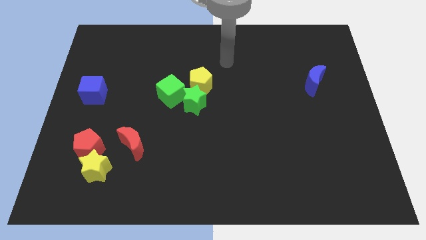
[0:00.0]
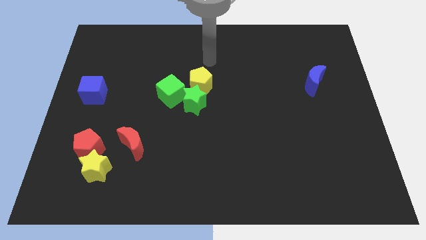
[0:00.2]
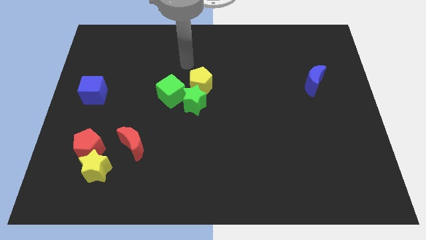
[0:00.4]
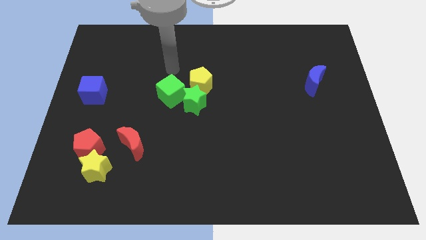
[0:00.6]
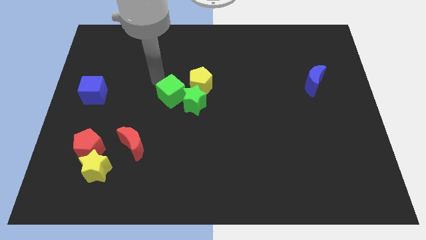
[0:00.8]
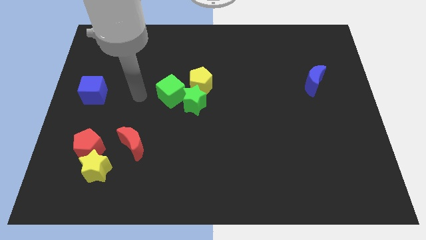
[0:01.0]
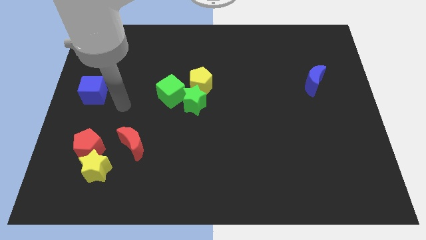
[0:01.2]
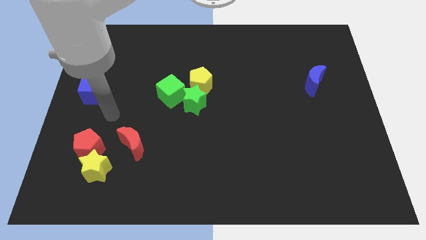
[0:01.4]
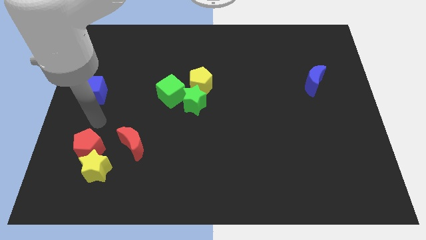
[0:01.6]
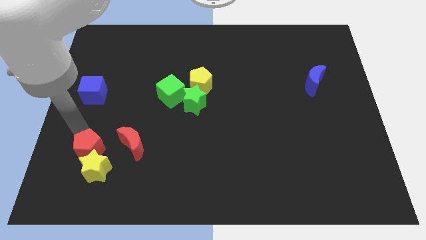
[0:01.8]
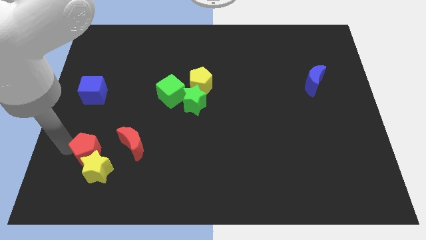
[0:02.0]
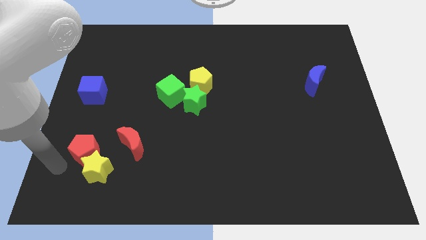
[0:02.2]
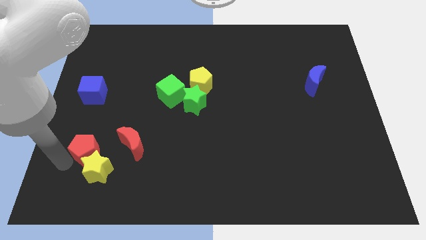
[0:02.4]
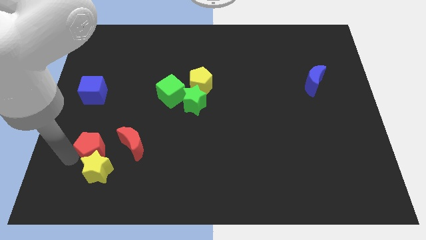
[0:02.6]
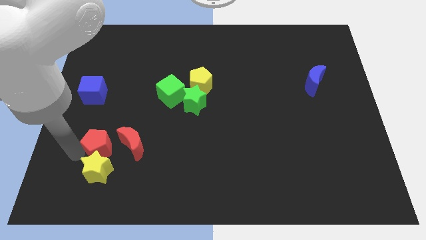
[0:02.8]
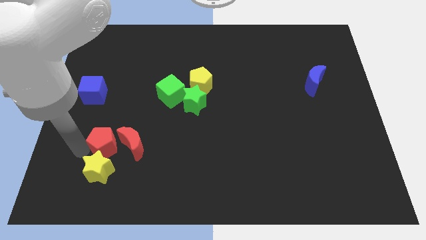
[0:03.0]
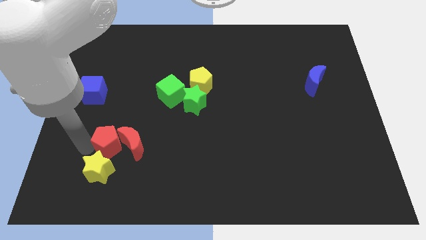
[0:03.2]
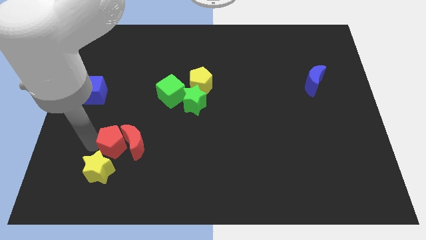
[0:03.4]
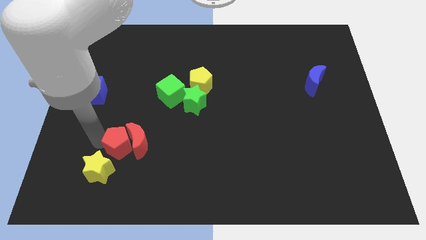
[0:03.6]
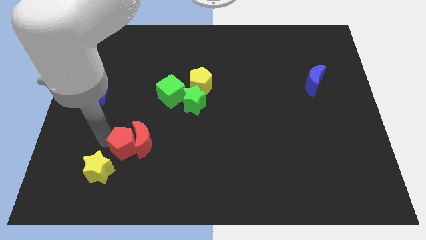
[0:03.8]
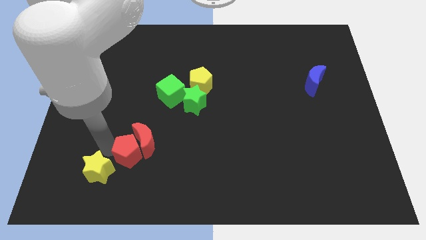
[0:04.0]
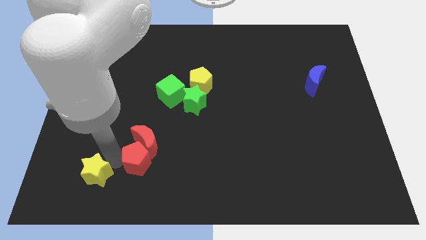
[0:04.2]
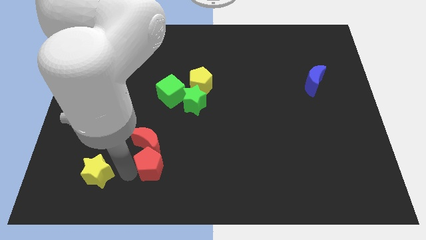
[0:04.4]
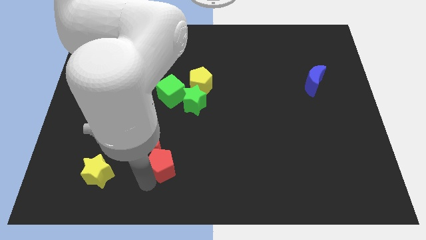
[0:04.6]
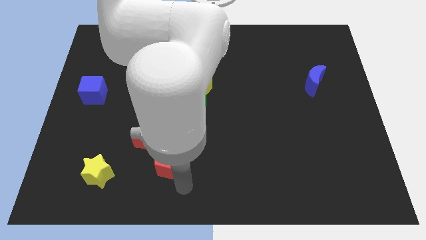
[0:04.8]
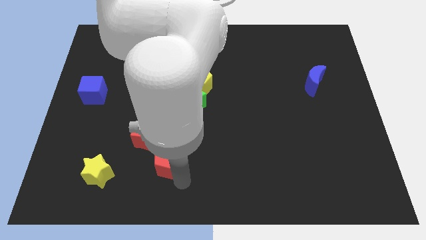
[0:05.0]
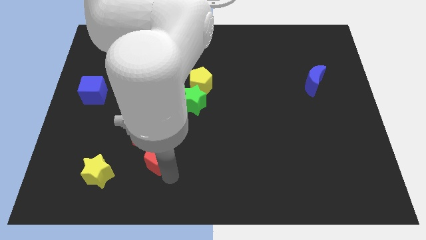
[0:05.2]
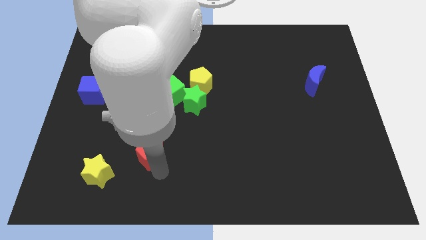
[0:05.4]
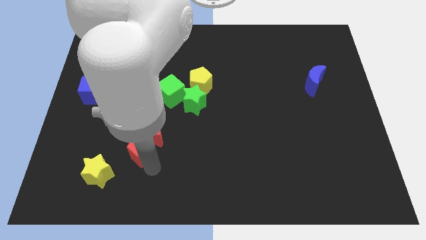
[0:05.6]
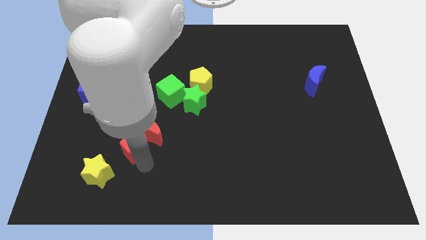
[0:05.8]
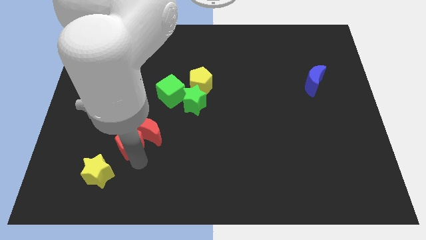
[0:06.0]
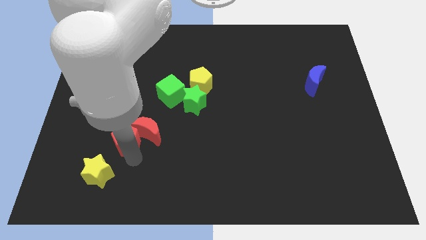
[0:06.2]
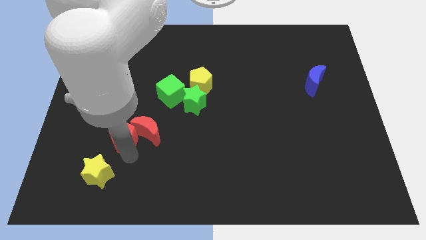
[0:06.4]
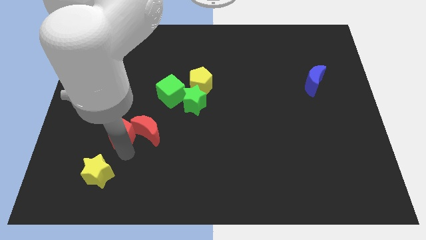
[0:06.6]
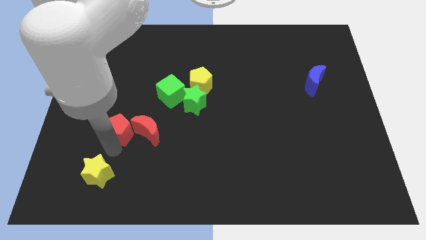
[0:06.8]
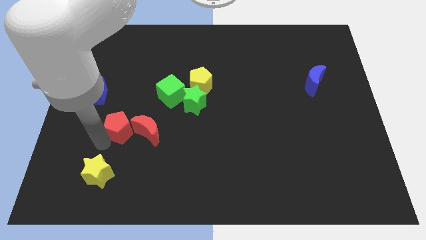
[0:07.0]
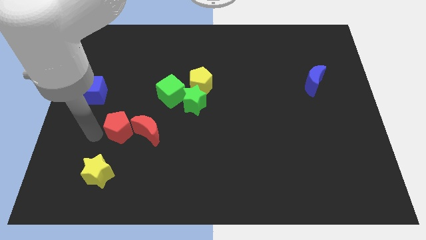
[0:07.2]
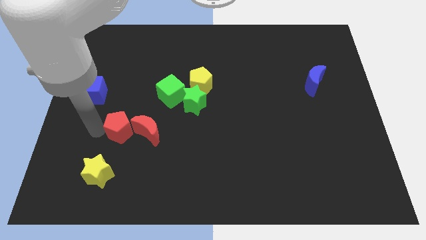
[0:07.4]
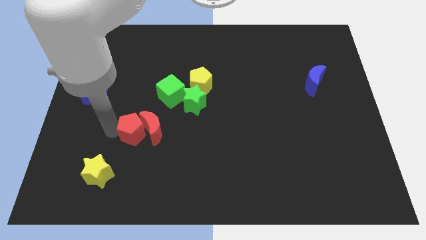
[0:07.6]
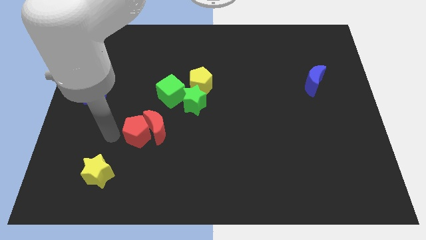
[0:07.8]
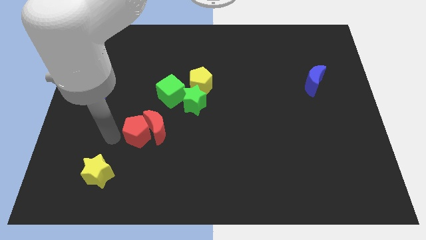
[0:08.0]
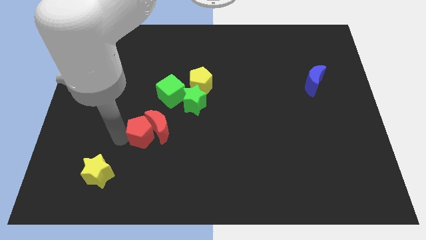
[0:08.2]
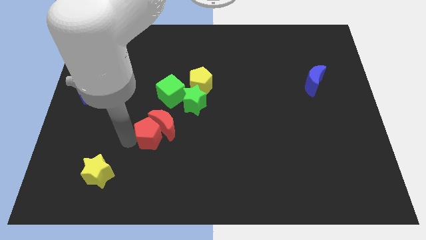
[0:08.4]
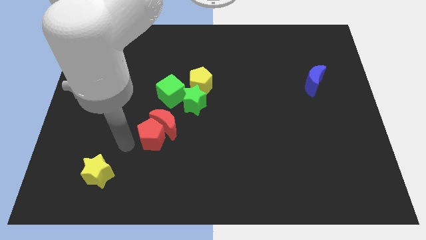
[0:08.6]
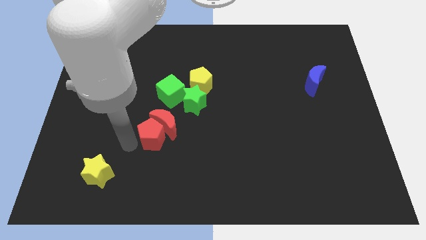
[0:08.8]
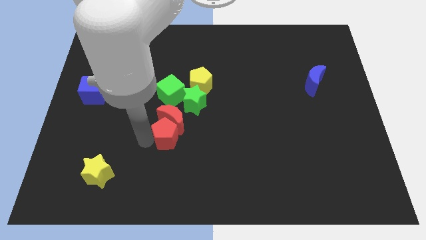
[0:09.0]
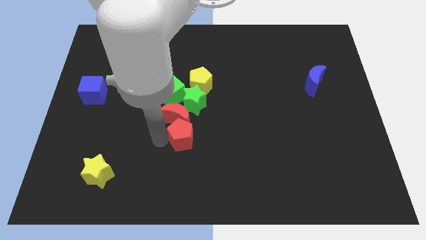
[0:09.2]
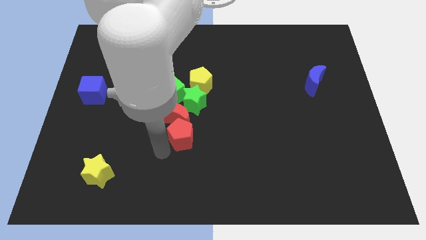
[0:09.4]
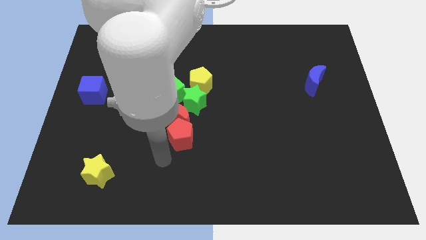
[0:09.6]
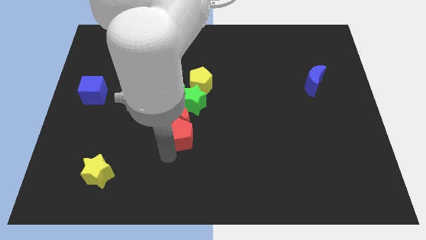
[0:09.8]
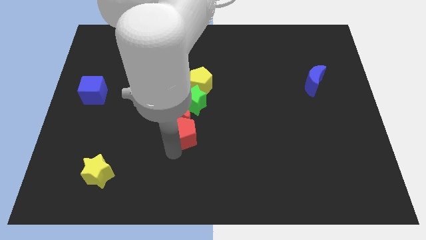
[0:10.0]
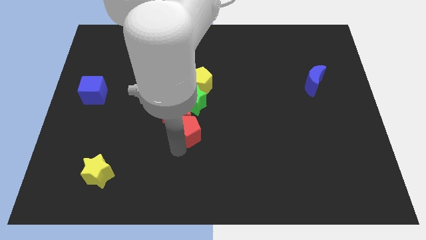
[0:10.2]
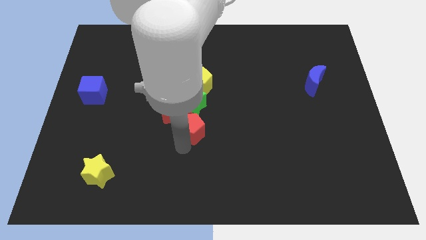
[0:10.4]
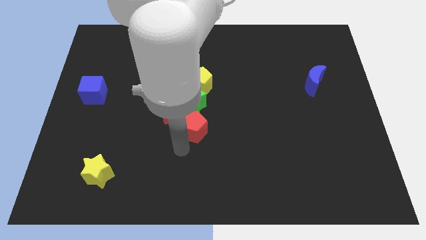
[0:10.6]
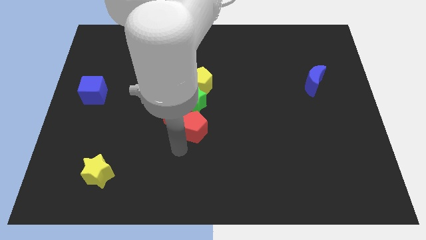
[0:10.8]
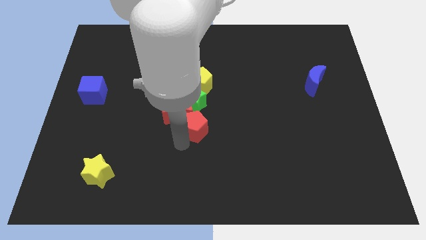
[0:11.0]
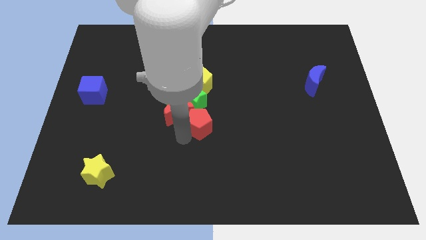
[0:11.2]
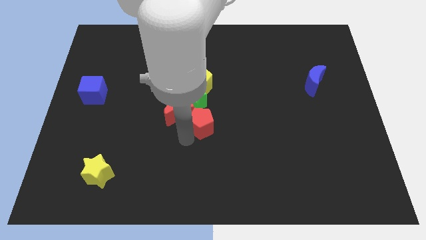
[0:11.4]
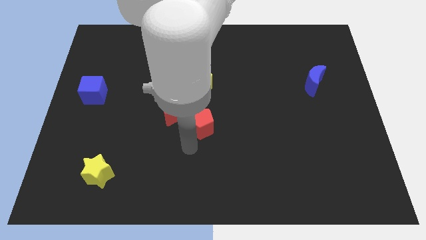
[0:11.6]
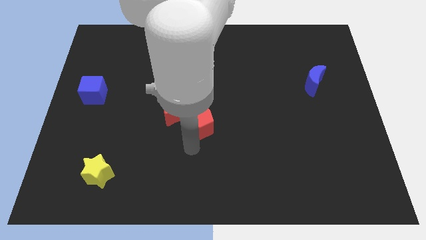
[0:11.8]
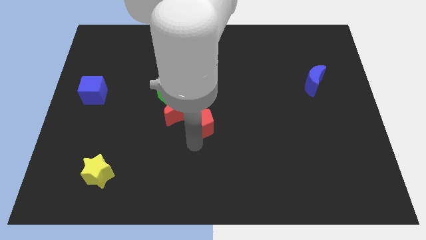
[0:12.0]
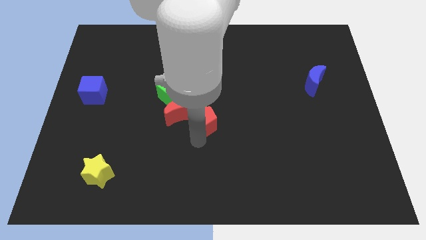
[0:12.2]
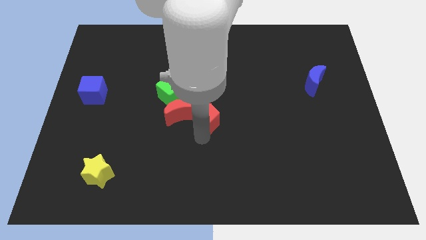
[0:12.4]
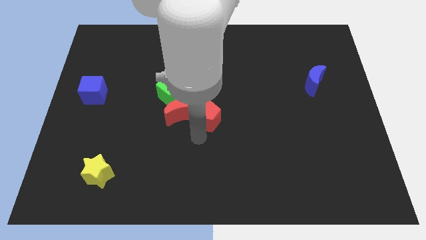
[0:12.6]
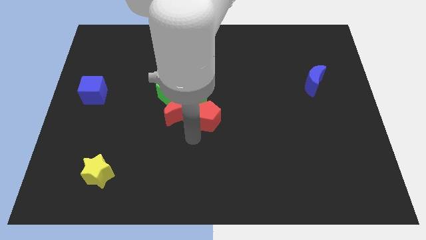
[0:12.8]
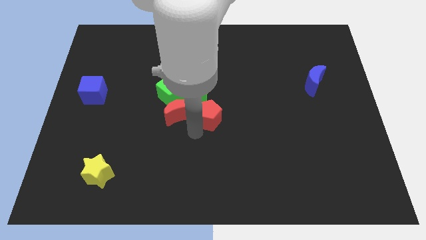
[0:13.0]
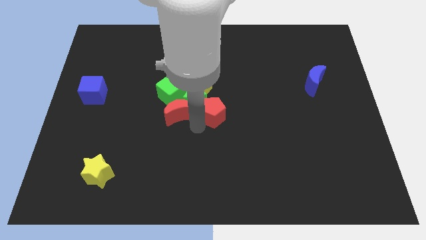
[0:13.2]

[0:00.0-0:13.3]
push the red pentagon to the bottom right of the yellow pentagon

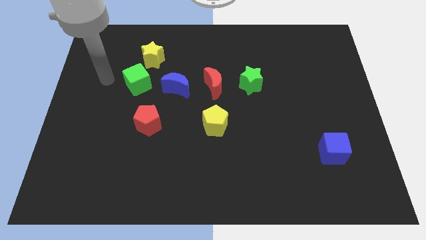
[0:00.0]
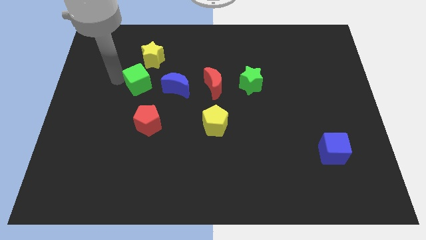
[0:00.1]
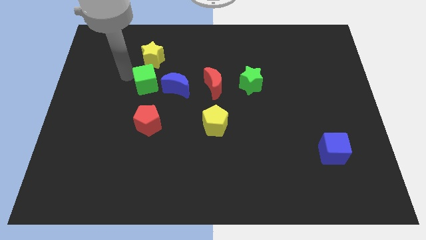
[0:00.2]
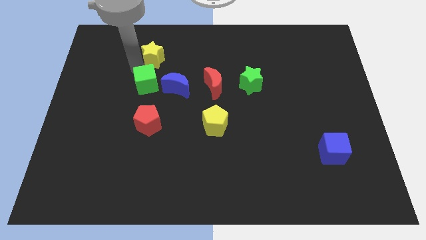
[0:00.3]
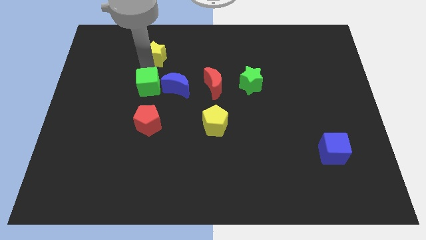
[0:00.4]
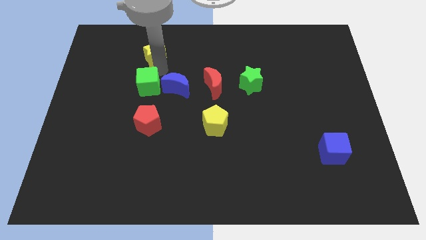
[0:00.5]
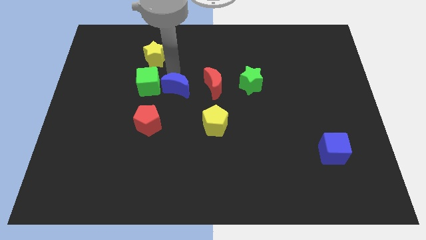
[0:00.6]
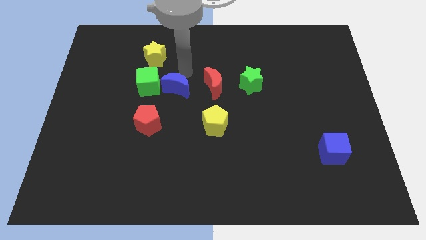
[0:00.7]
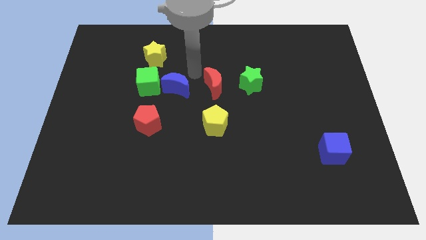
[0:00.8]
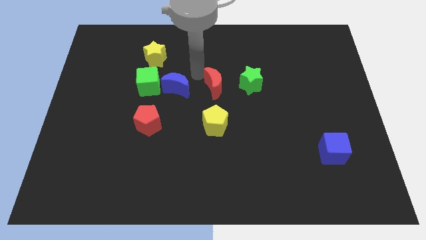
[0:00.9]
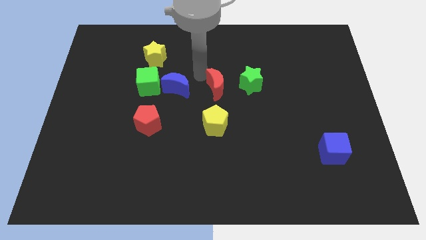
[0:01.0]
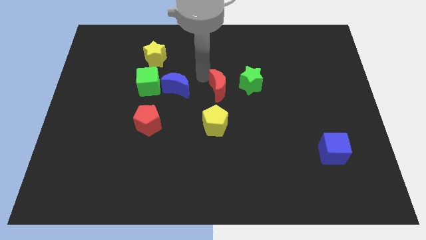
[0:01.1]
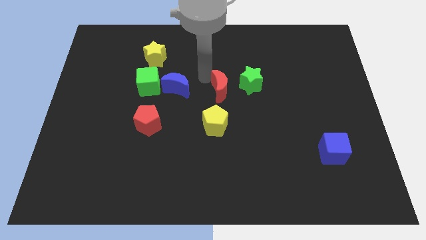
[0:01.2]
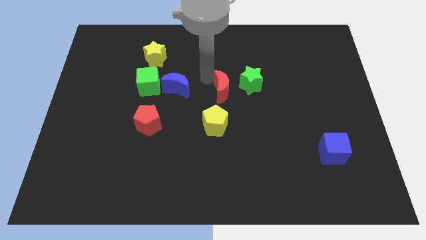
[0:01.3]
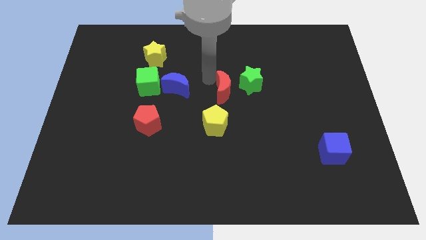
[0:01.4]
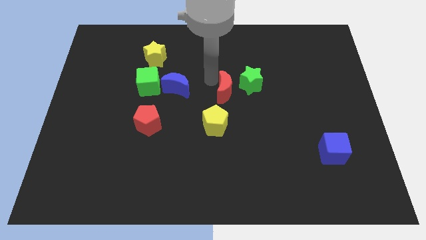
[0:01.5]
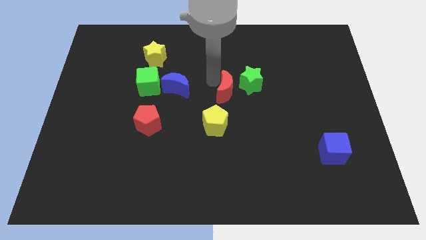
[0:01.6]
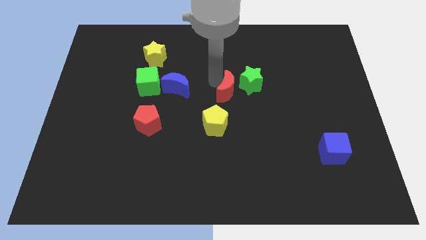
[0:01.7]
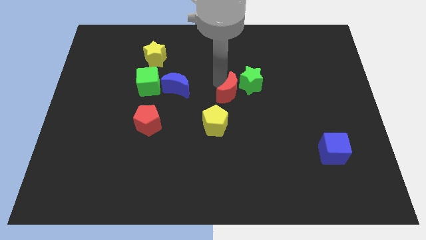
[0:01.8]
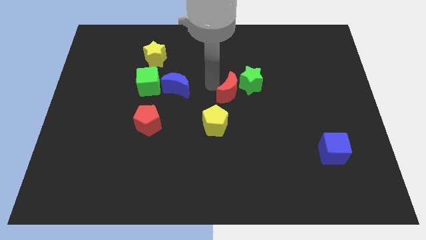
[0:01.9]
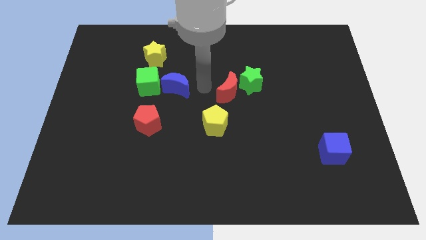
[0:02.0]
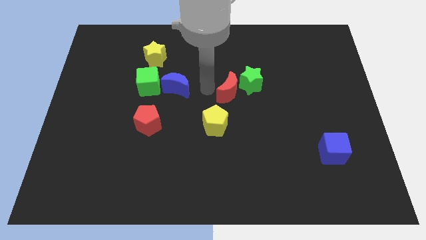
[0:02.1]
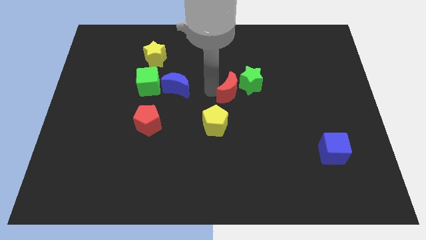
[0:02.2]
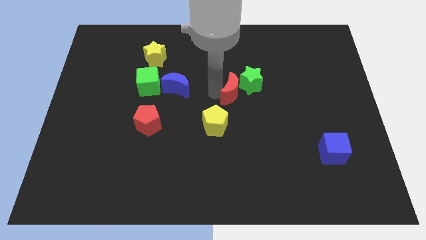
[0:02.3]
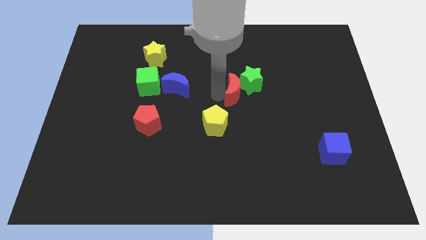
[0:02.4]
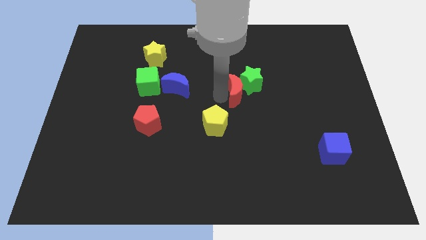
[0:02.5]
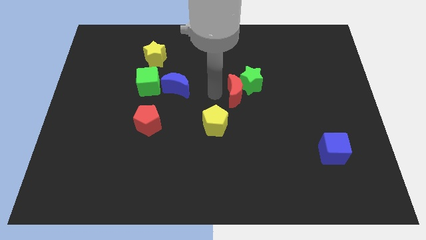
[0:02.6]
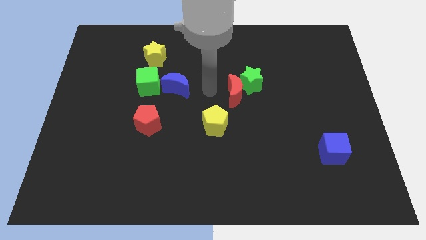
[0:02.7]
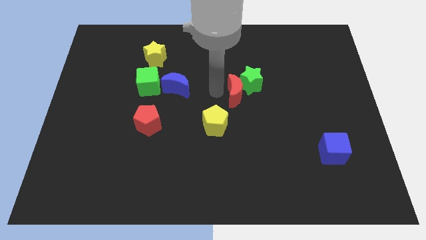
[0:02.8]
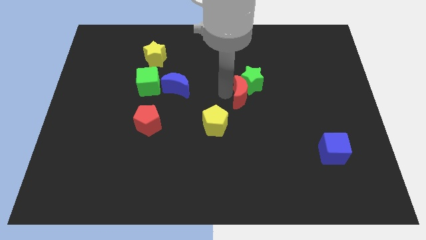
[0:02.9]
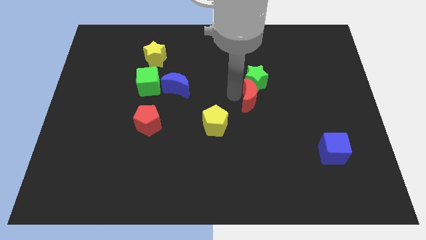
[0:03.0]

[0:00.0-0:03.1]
slide the red moon to the bottom right side of the green star
